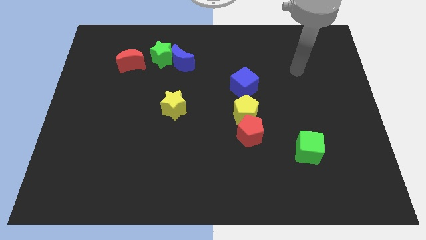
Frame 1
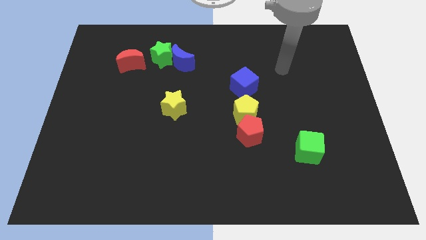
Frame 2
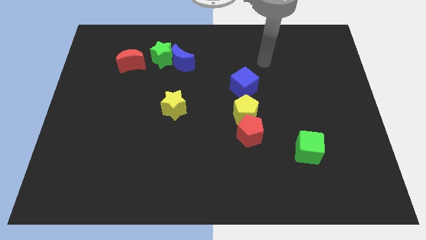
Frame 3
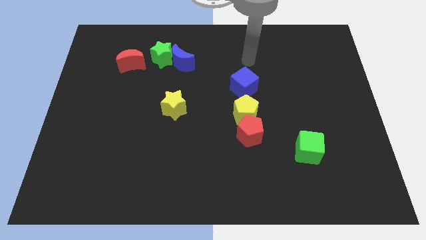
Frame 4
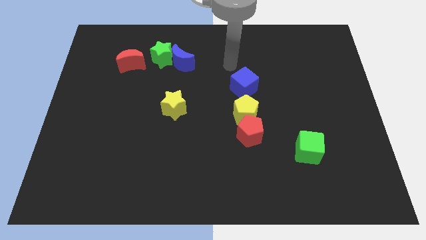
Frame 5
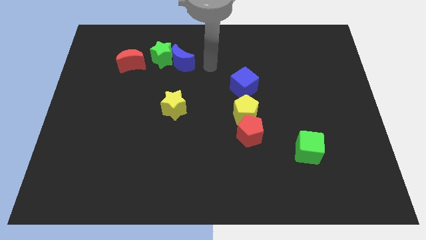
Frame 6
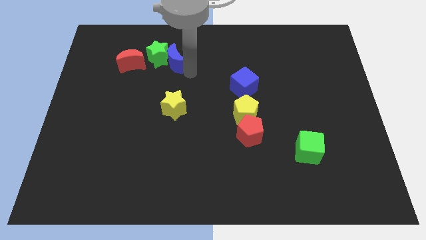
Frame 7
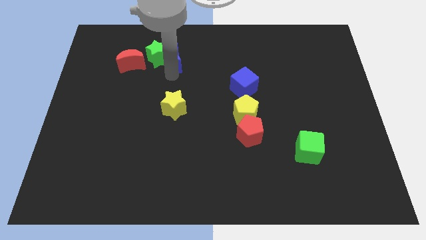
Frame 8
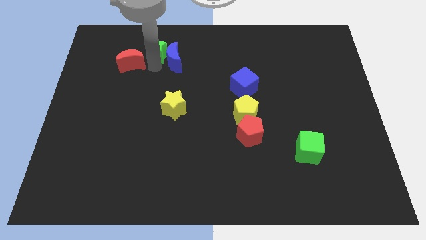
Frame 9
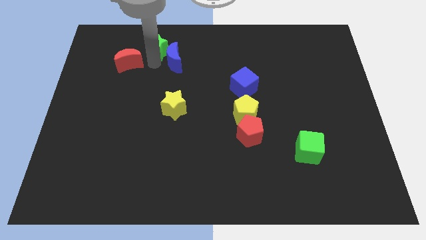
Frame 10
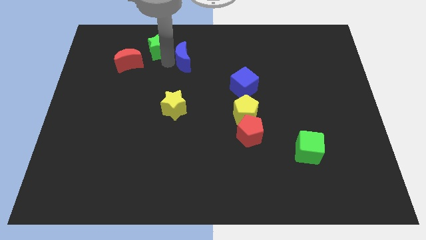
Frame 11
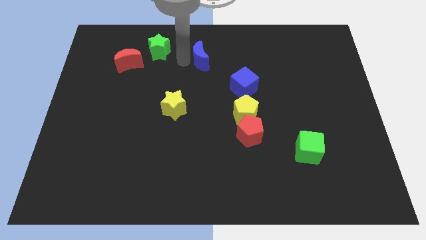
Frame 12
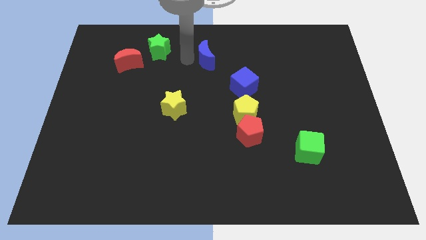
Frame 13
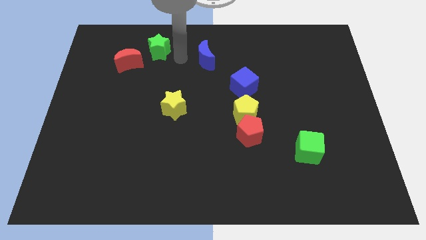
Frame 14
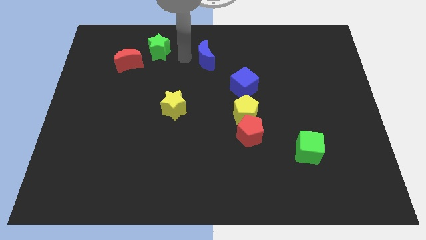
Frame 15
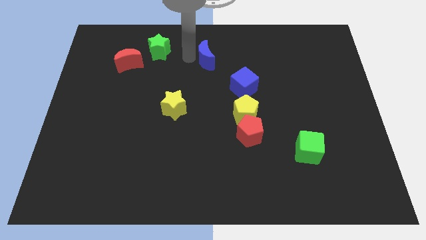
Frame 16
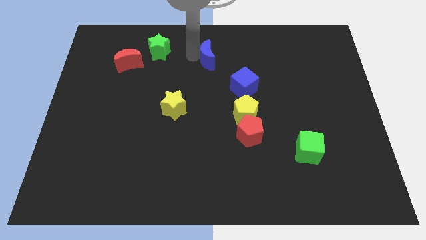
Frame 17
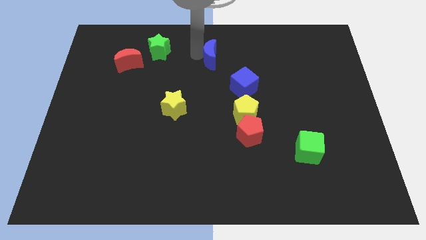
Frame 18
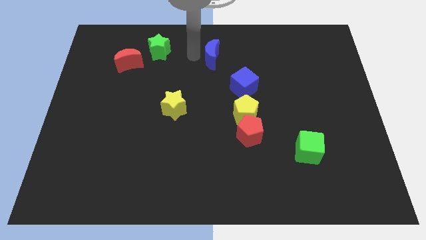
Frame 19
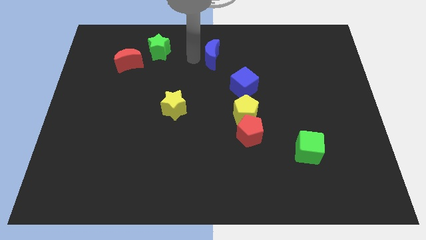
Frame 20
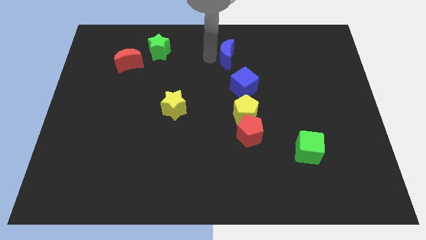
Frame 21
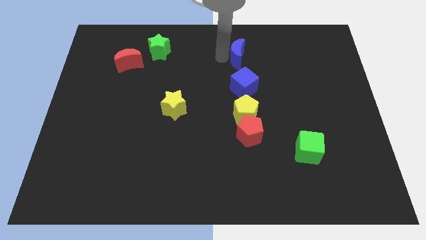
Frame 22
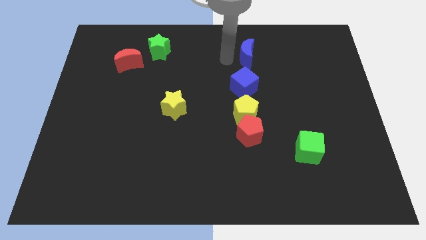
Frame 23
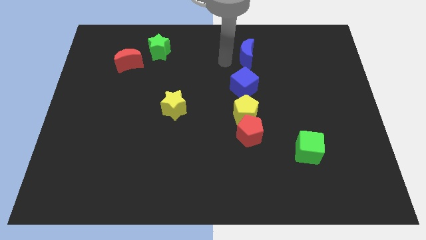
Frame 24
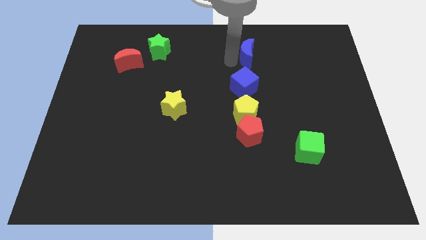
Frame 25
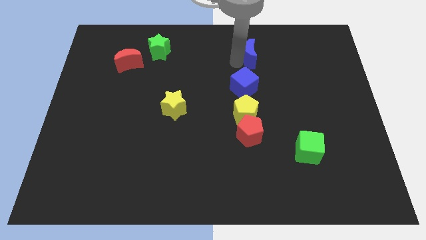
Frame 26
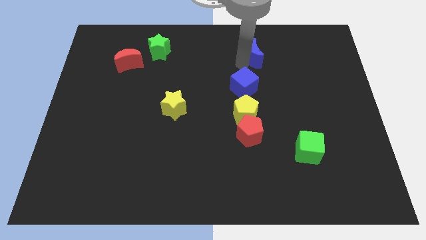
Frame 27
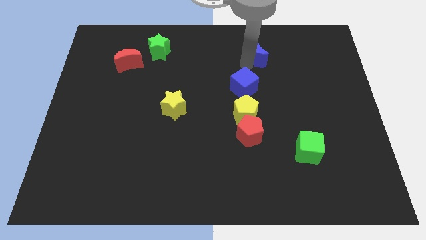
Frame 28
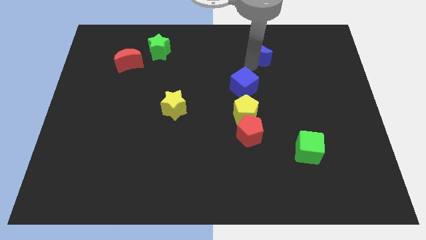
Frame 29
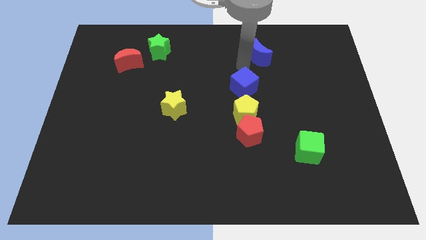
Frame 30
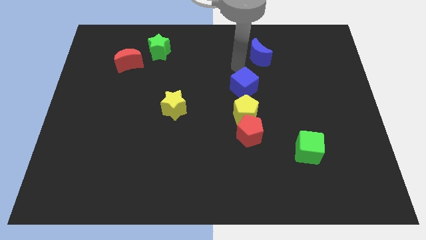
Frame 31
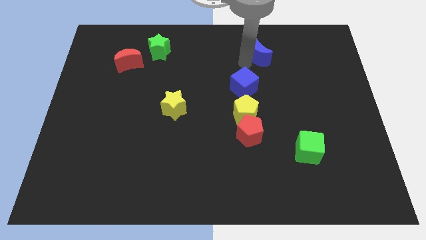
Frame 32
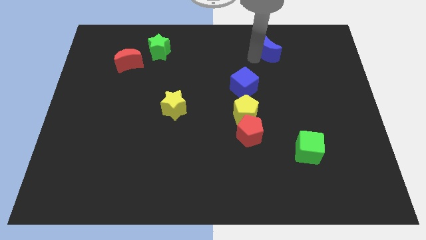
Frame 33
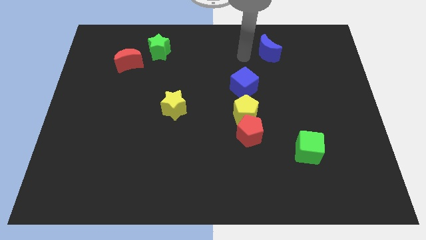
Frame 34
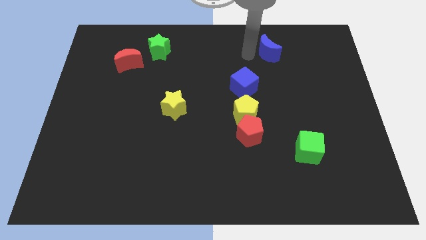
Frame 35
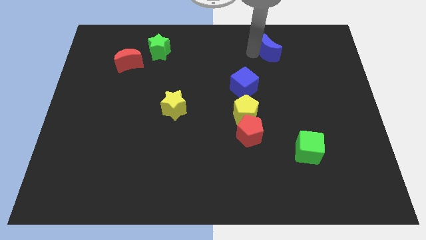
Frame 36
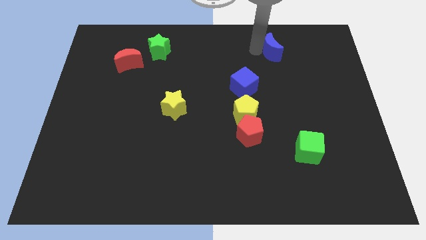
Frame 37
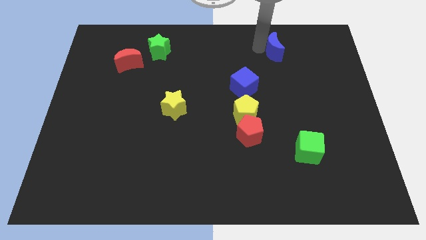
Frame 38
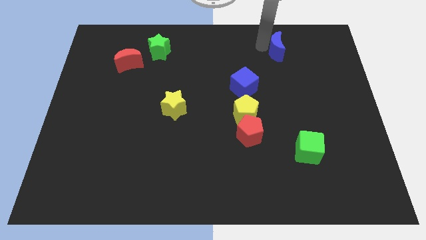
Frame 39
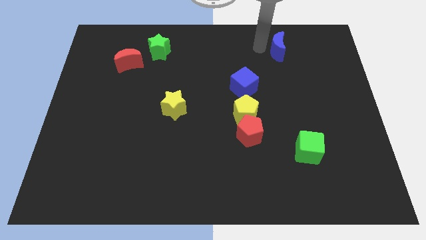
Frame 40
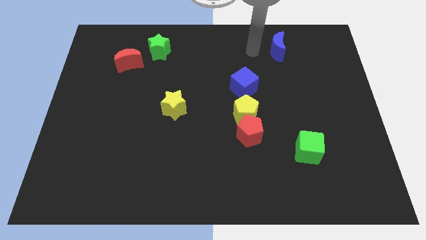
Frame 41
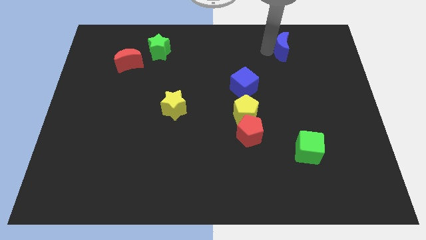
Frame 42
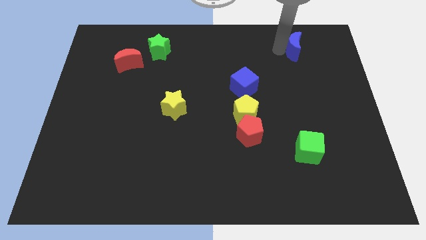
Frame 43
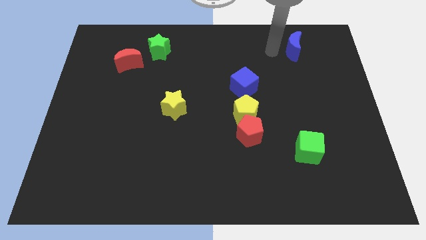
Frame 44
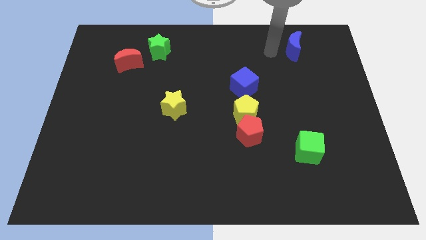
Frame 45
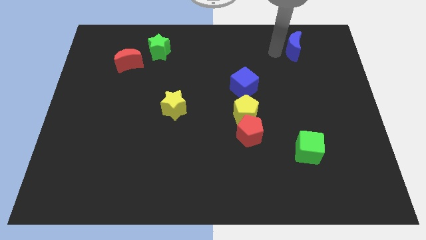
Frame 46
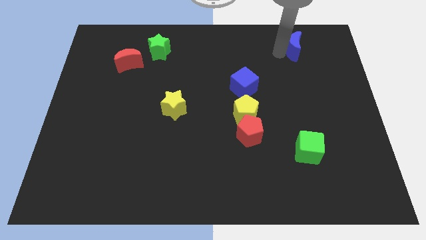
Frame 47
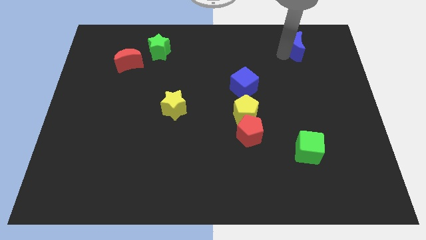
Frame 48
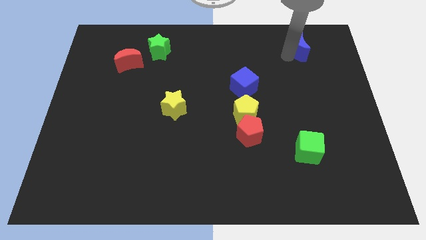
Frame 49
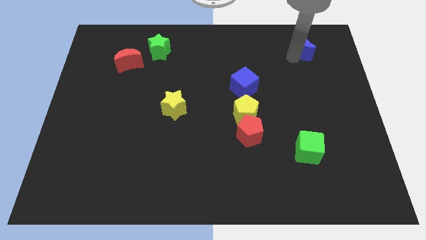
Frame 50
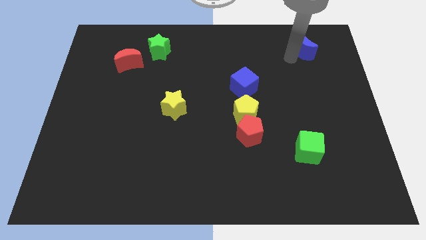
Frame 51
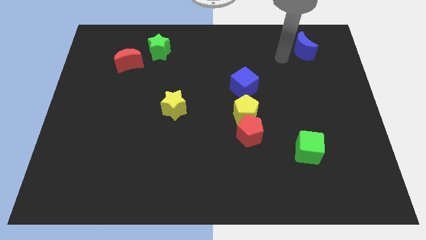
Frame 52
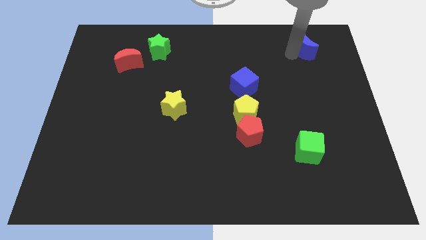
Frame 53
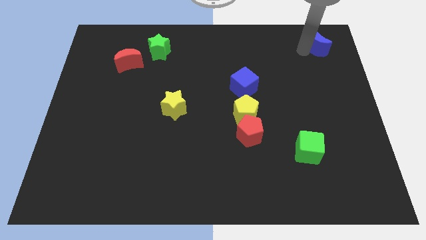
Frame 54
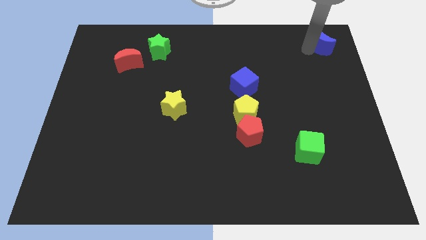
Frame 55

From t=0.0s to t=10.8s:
move the blue moon to the top right of the board

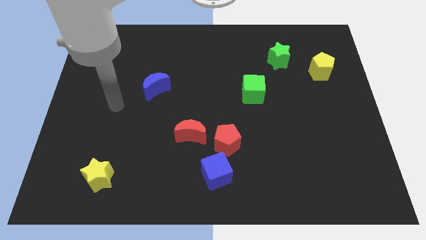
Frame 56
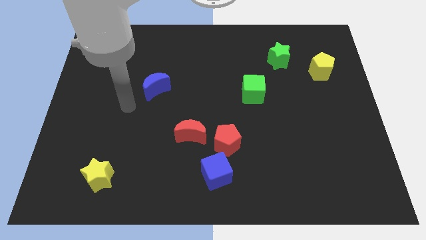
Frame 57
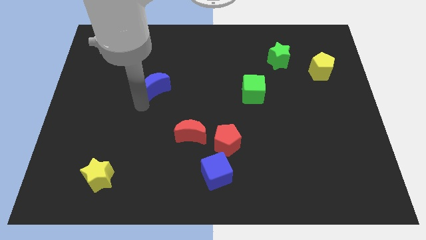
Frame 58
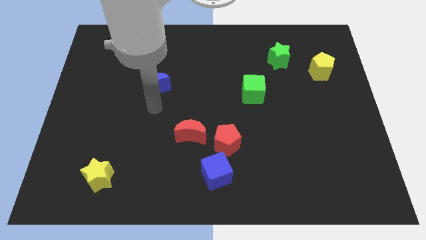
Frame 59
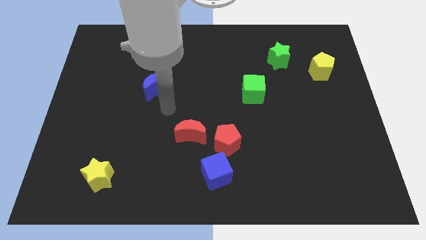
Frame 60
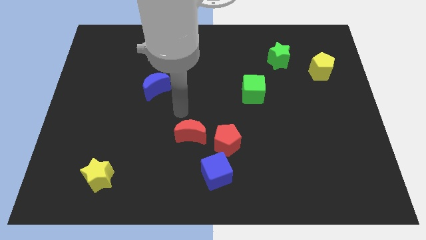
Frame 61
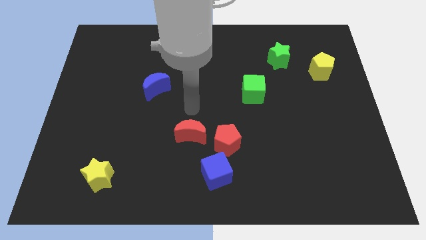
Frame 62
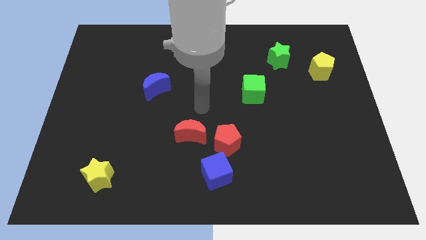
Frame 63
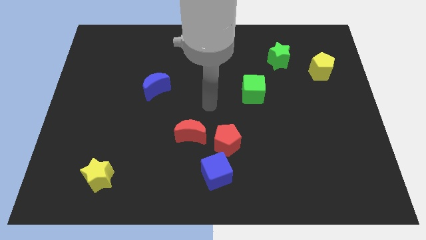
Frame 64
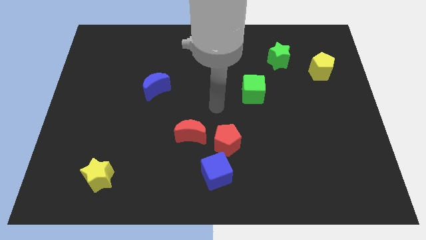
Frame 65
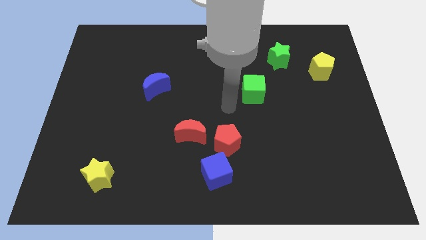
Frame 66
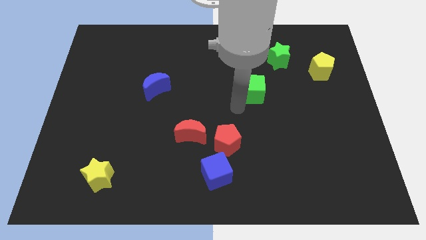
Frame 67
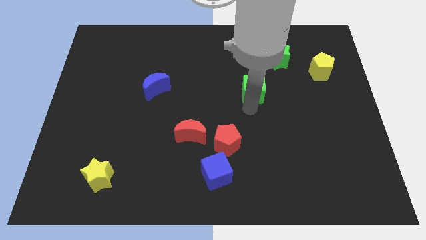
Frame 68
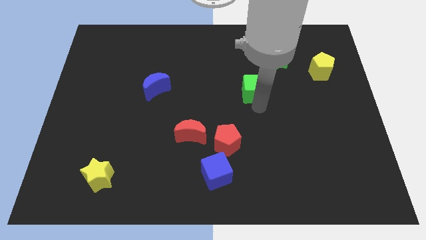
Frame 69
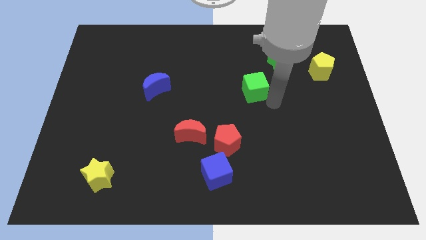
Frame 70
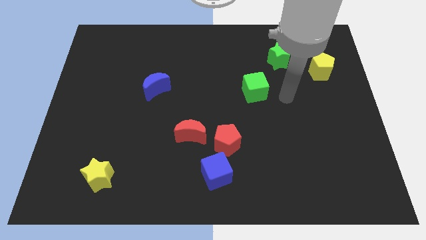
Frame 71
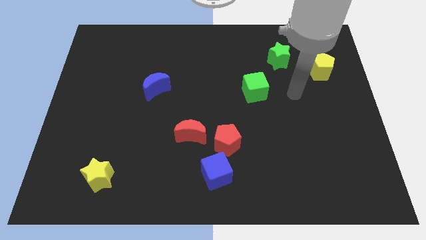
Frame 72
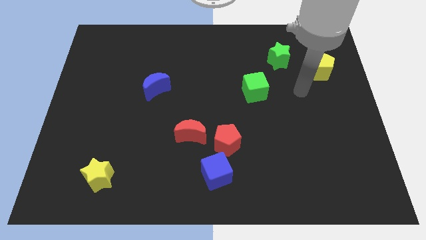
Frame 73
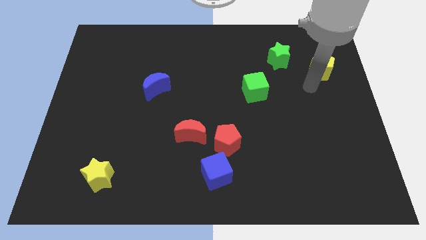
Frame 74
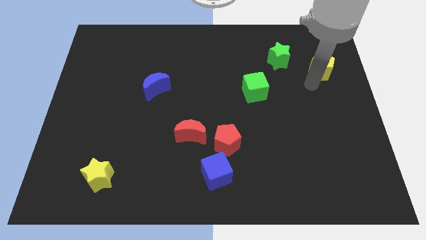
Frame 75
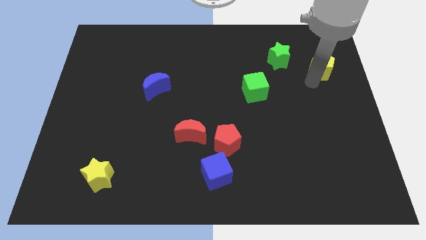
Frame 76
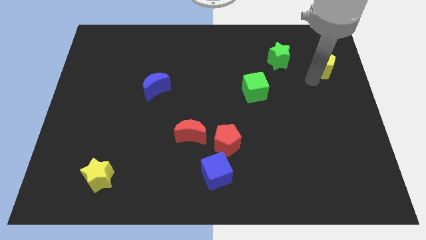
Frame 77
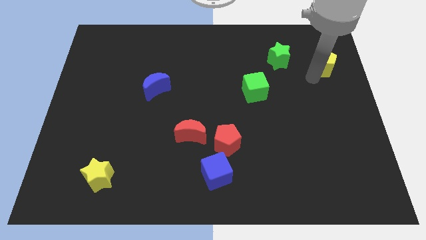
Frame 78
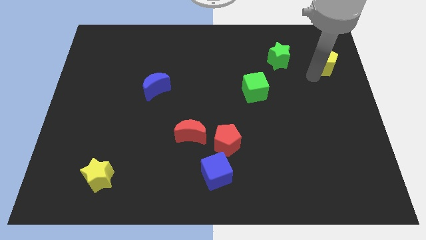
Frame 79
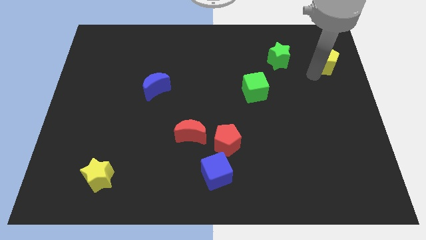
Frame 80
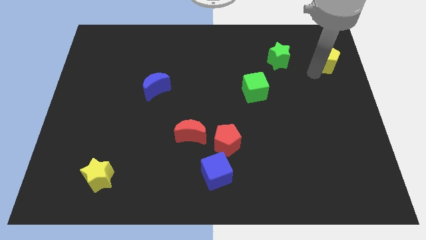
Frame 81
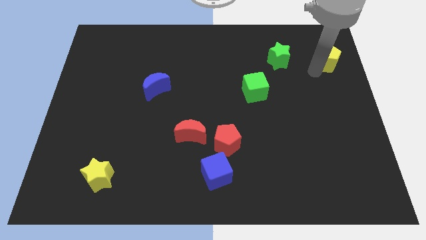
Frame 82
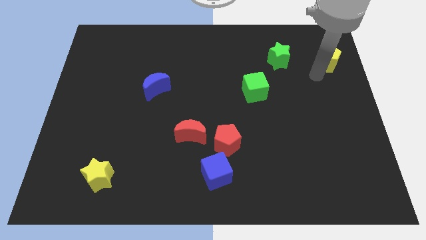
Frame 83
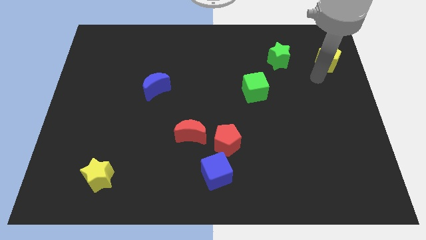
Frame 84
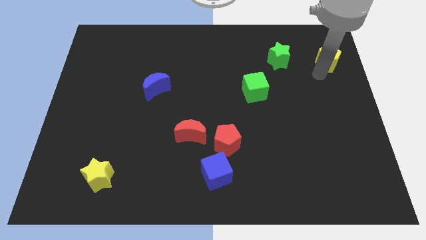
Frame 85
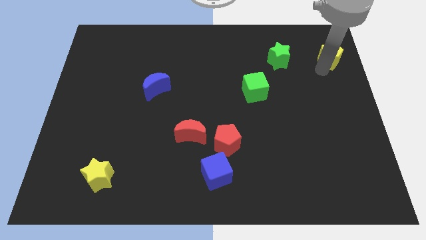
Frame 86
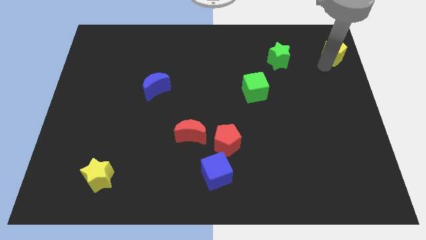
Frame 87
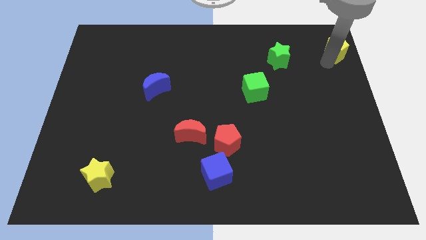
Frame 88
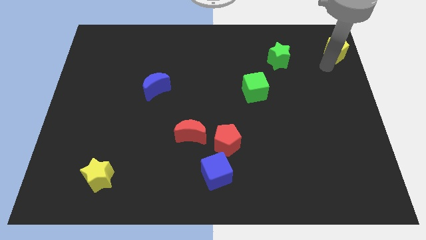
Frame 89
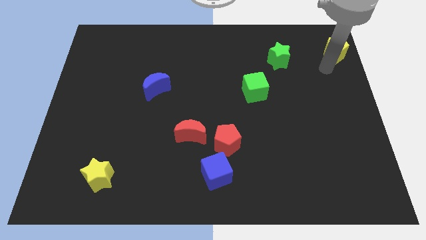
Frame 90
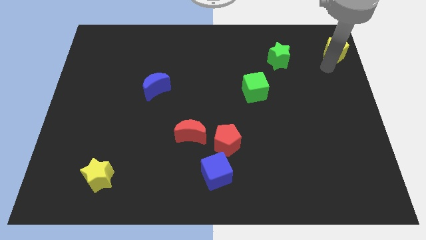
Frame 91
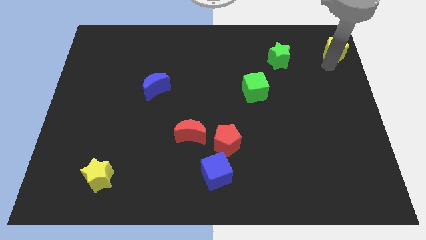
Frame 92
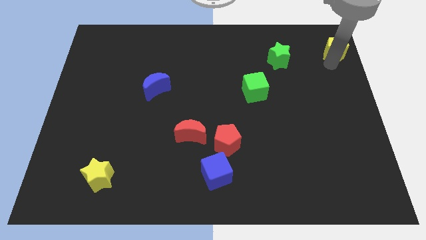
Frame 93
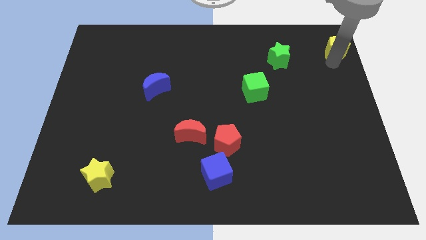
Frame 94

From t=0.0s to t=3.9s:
move the yellow pentagon to the top right corner
